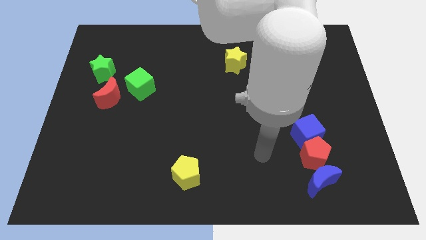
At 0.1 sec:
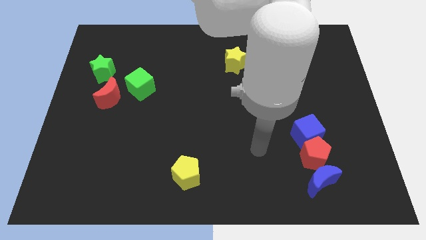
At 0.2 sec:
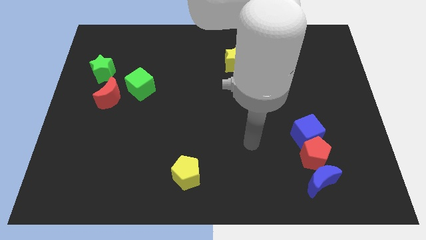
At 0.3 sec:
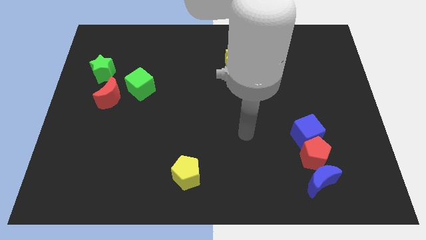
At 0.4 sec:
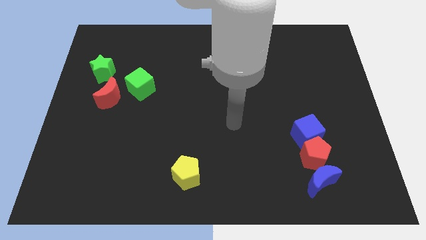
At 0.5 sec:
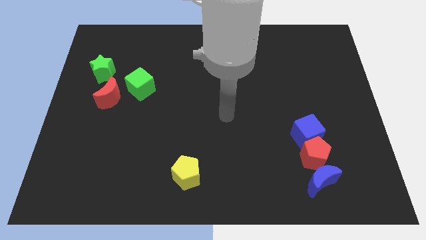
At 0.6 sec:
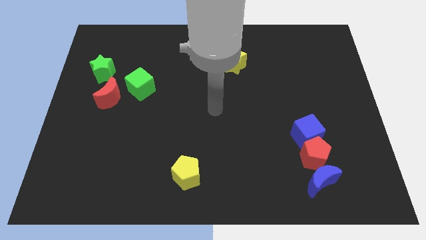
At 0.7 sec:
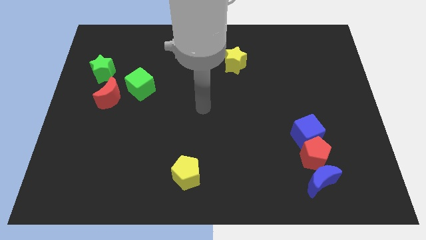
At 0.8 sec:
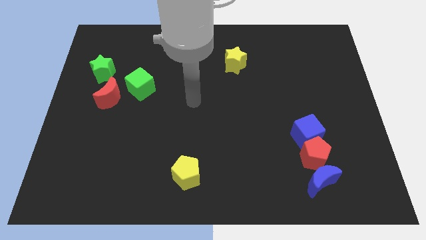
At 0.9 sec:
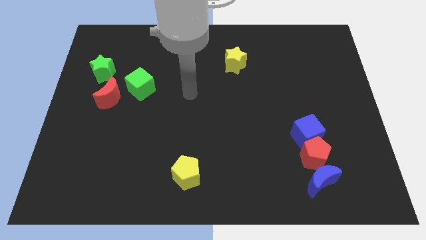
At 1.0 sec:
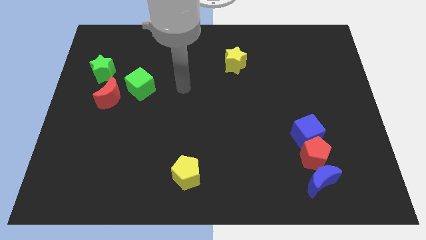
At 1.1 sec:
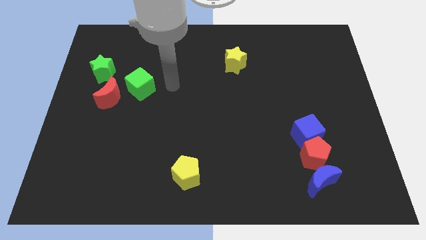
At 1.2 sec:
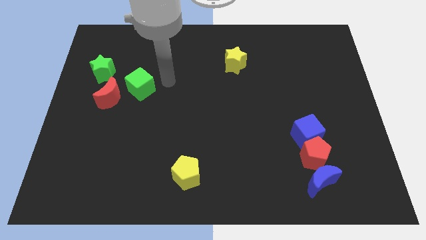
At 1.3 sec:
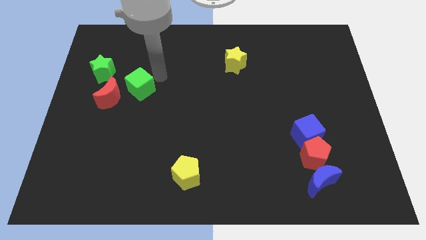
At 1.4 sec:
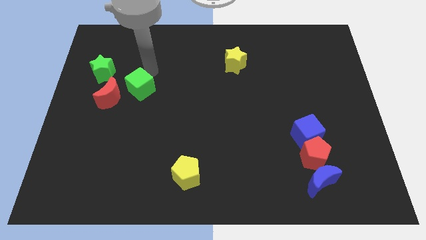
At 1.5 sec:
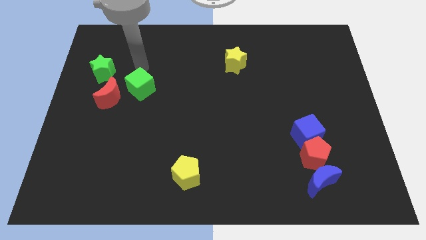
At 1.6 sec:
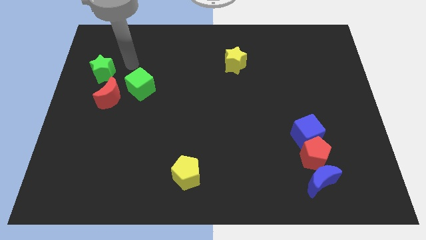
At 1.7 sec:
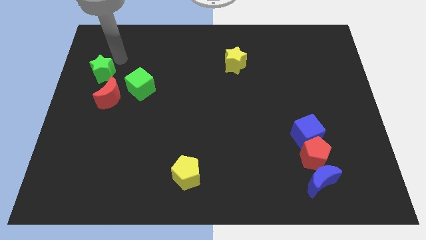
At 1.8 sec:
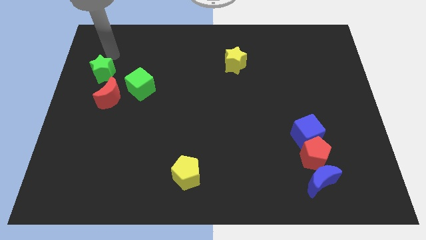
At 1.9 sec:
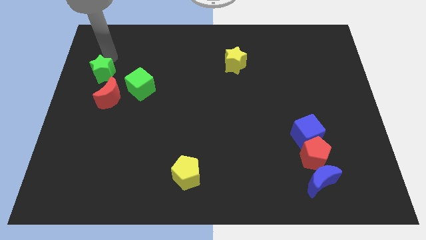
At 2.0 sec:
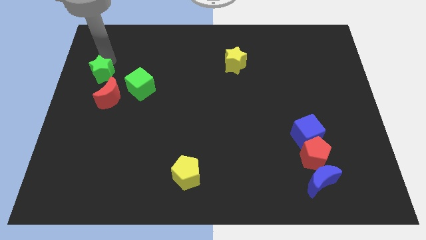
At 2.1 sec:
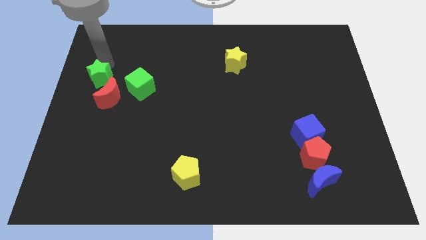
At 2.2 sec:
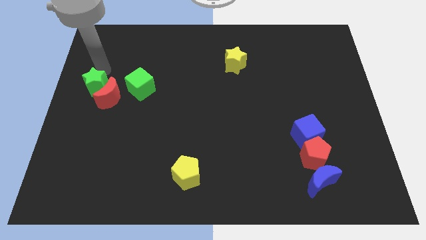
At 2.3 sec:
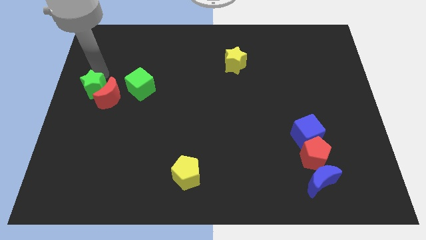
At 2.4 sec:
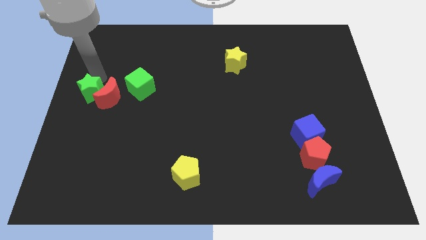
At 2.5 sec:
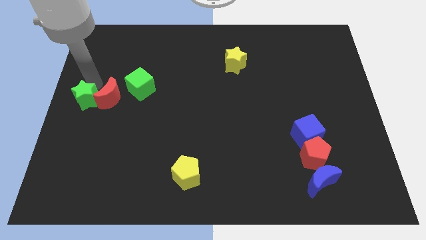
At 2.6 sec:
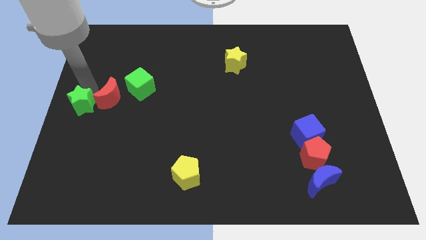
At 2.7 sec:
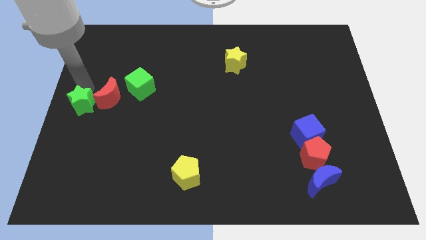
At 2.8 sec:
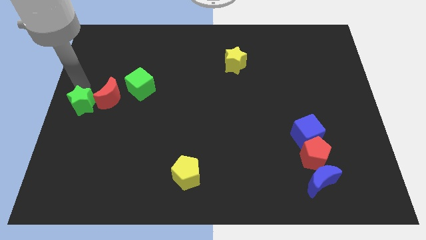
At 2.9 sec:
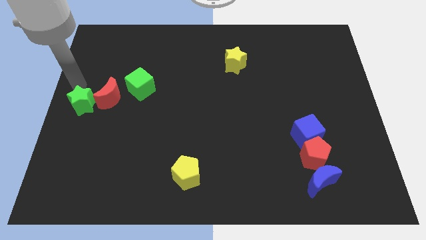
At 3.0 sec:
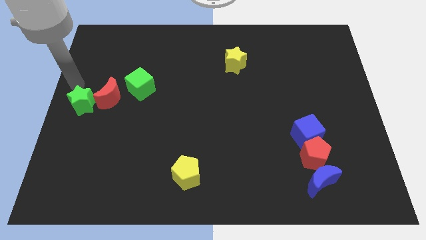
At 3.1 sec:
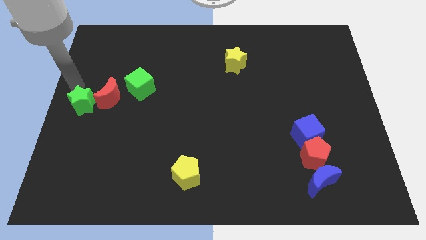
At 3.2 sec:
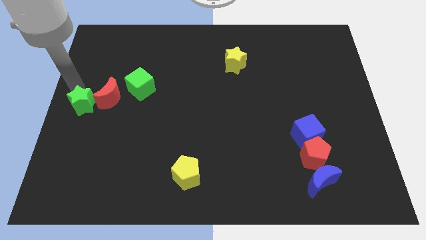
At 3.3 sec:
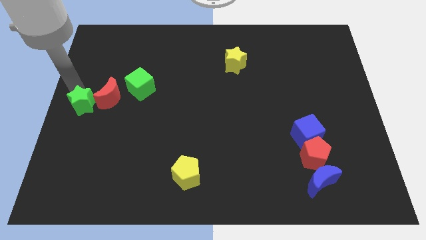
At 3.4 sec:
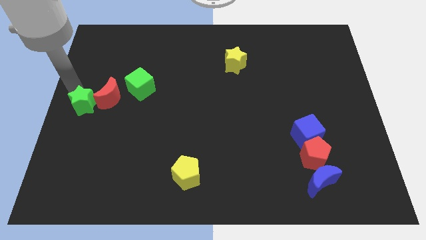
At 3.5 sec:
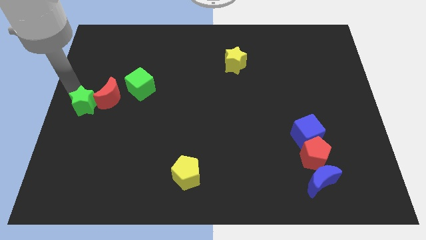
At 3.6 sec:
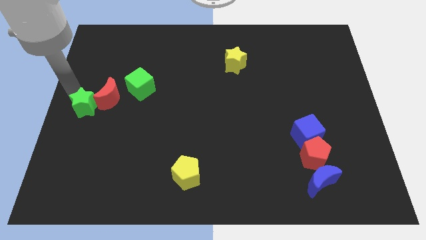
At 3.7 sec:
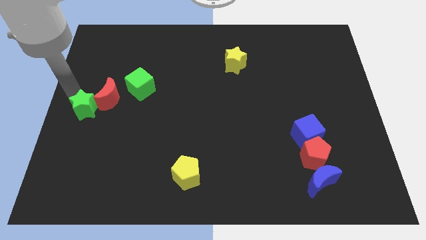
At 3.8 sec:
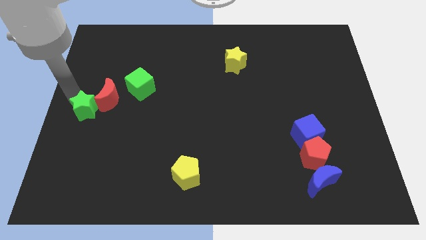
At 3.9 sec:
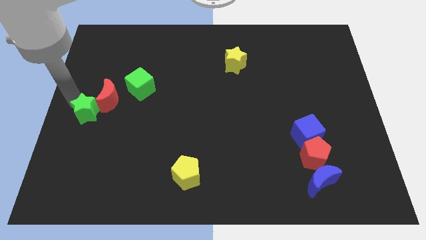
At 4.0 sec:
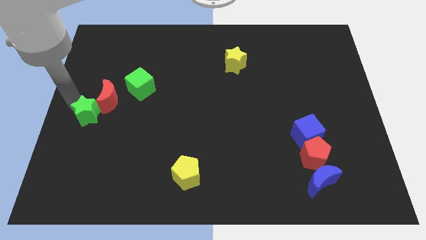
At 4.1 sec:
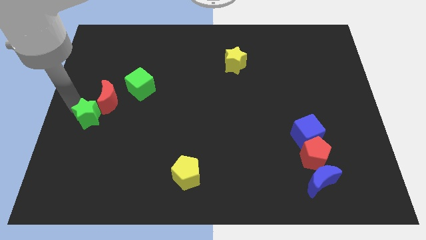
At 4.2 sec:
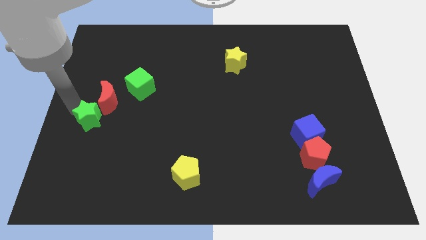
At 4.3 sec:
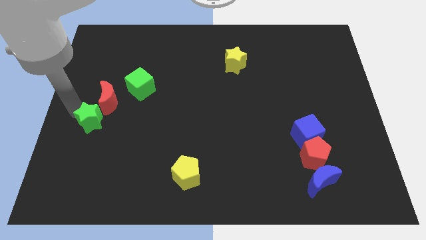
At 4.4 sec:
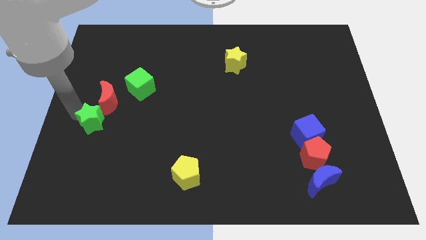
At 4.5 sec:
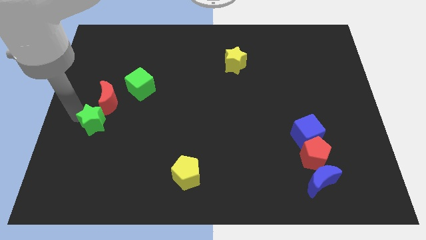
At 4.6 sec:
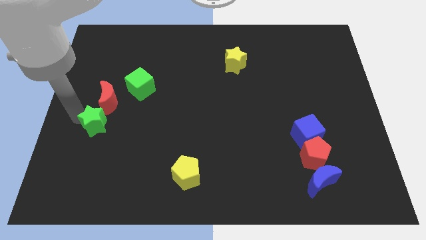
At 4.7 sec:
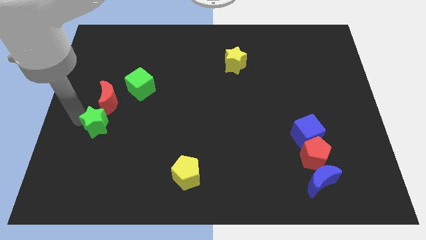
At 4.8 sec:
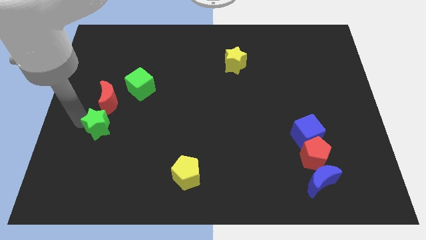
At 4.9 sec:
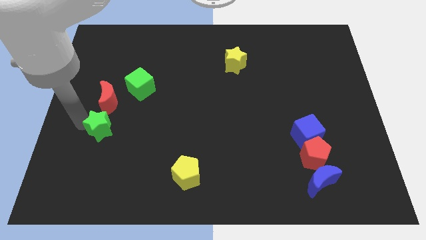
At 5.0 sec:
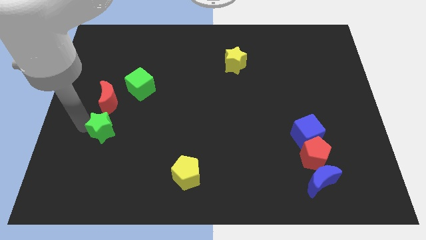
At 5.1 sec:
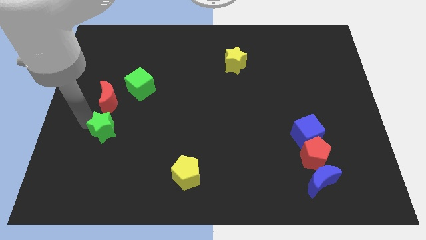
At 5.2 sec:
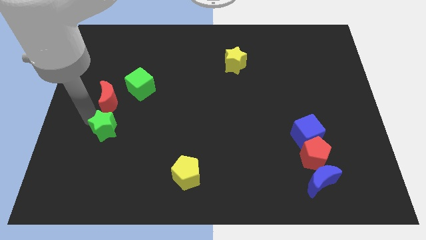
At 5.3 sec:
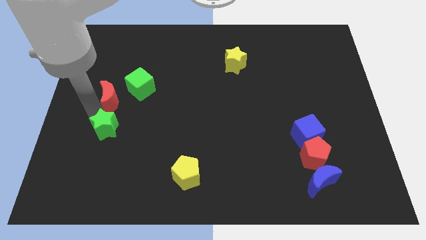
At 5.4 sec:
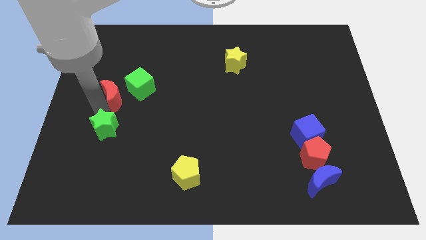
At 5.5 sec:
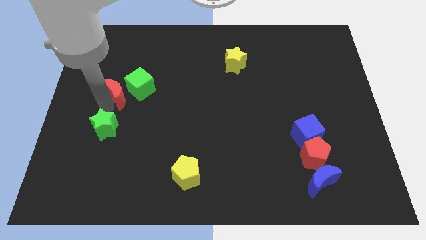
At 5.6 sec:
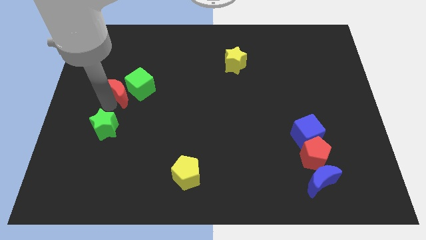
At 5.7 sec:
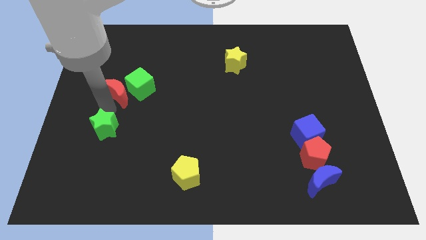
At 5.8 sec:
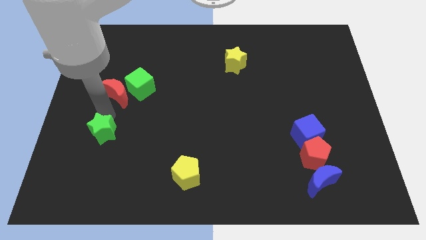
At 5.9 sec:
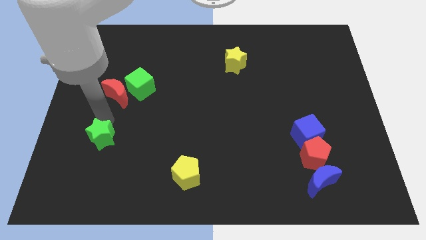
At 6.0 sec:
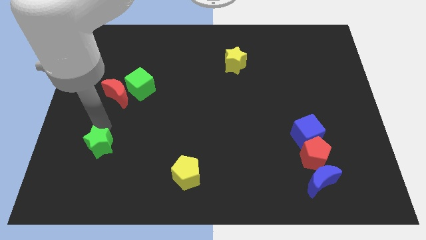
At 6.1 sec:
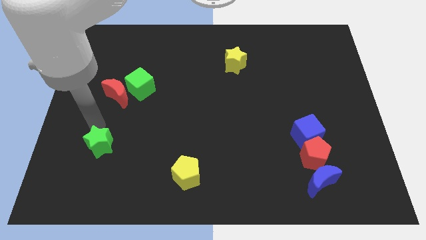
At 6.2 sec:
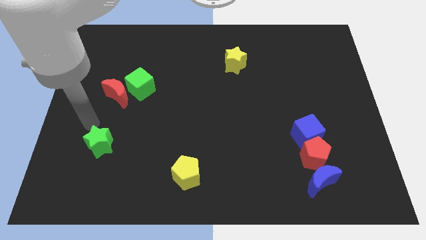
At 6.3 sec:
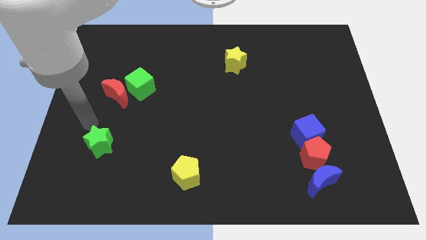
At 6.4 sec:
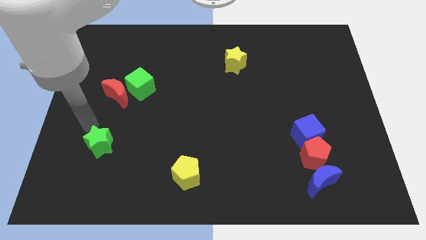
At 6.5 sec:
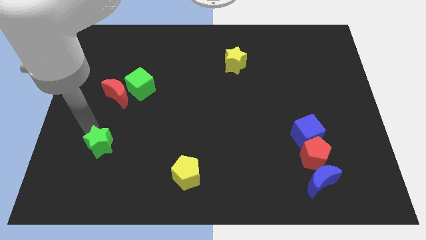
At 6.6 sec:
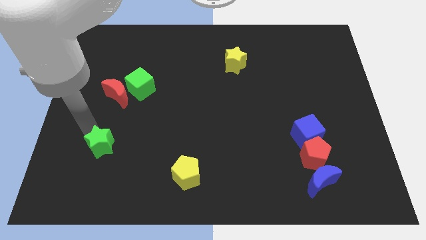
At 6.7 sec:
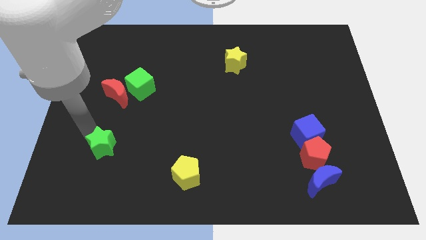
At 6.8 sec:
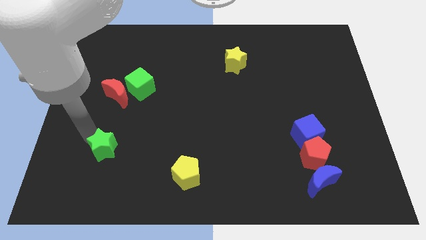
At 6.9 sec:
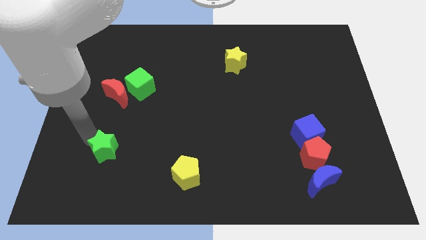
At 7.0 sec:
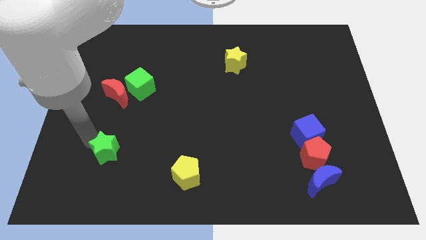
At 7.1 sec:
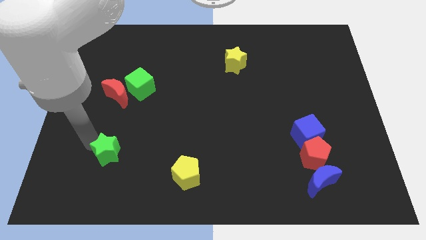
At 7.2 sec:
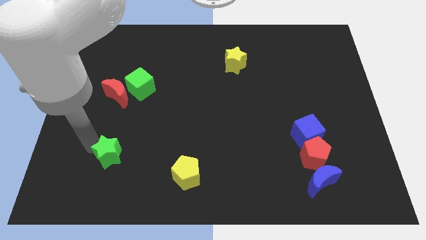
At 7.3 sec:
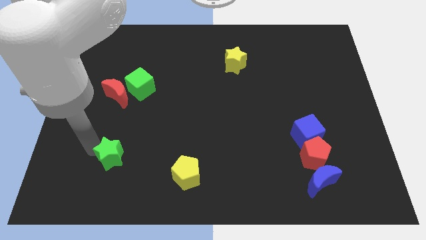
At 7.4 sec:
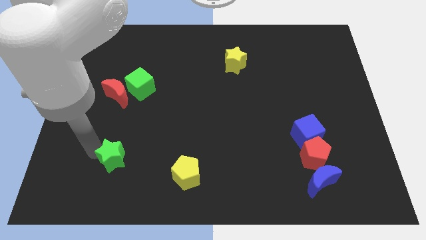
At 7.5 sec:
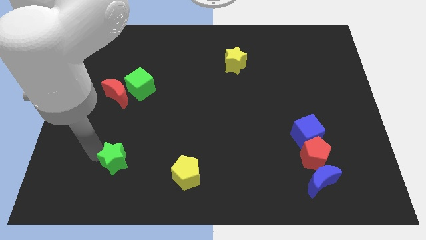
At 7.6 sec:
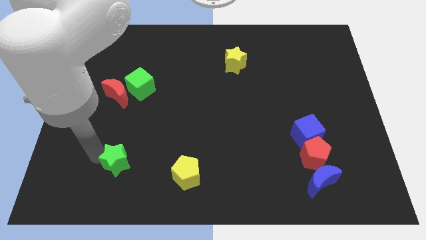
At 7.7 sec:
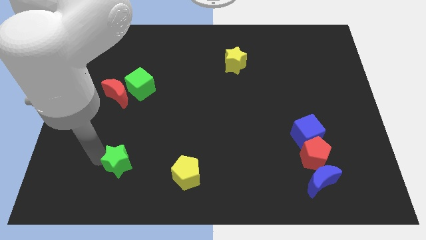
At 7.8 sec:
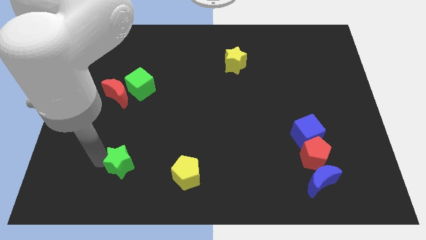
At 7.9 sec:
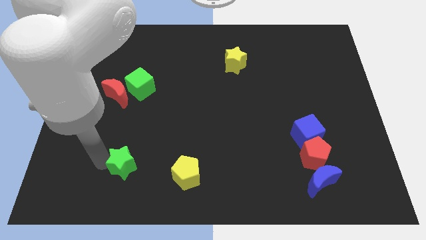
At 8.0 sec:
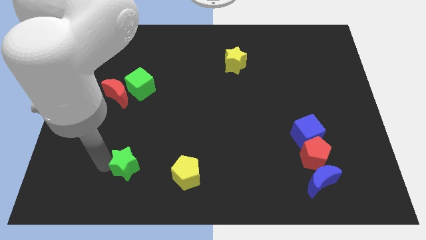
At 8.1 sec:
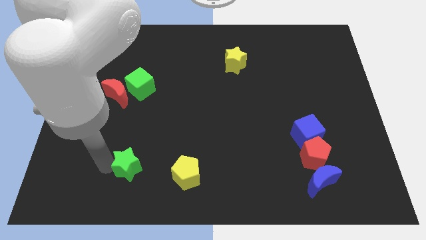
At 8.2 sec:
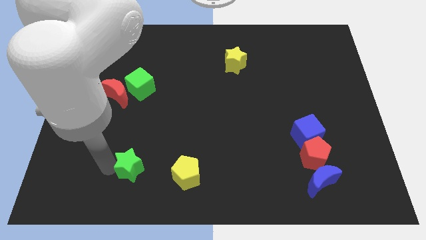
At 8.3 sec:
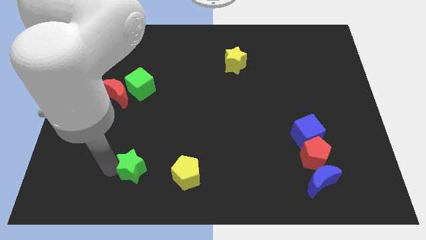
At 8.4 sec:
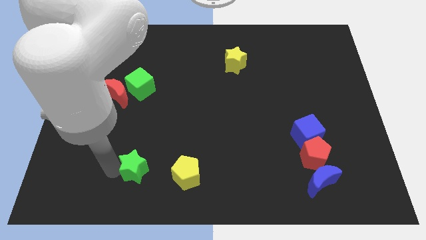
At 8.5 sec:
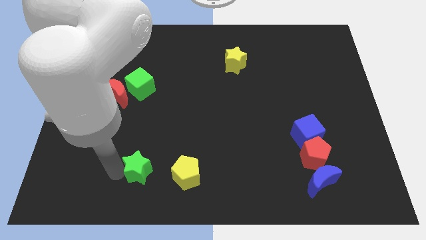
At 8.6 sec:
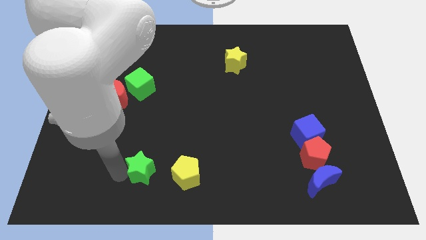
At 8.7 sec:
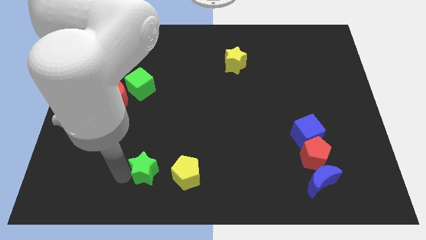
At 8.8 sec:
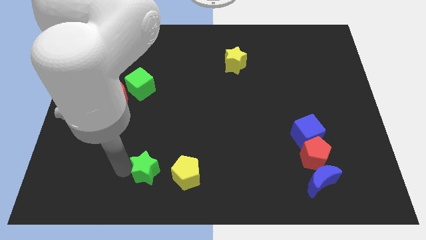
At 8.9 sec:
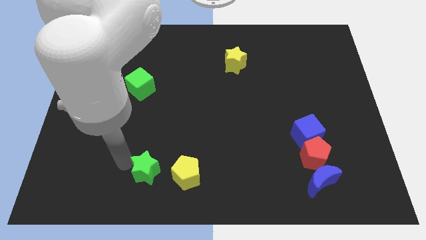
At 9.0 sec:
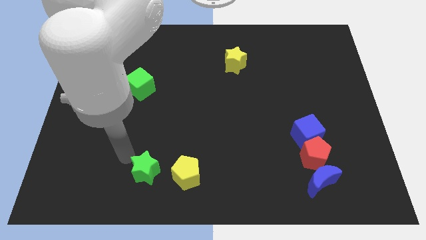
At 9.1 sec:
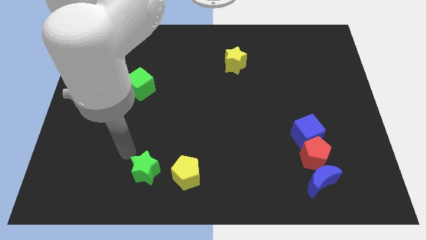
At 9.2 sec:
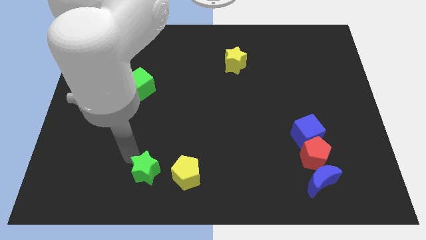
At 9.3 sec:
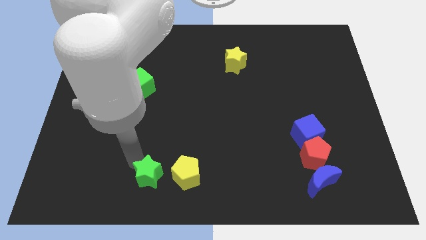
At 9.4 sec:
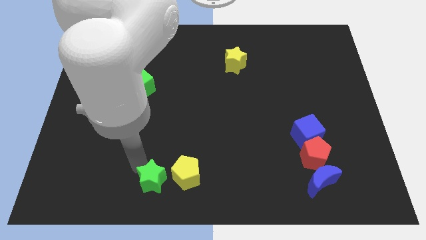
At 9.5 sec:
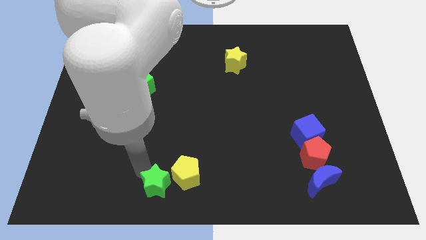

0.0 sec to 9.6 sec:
slide the green star to the bottom side
